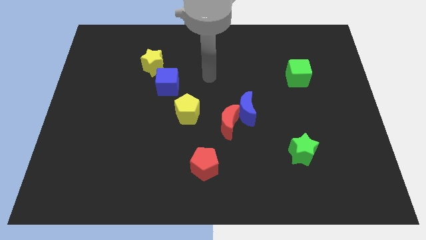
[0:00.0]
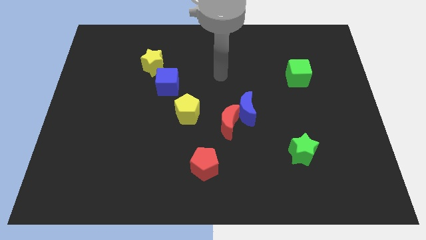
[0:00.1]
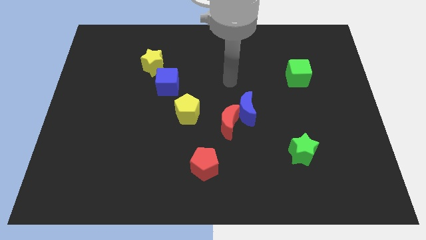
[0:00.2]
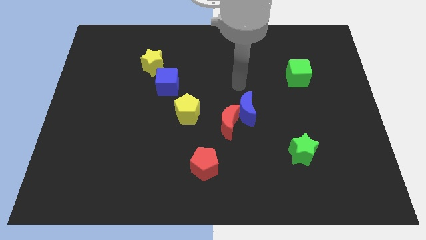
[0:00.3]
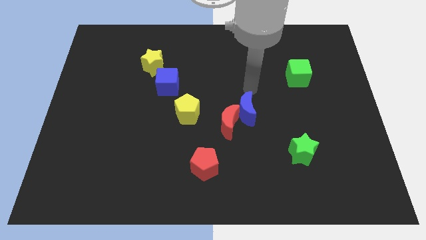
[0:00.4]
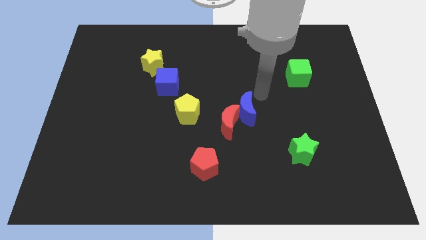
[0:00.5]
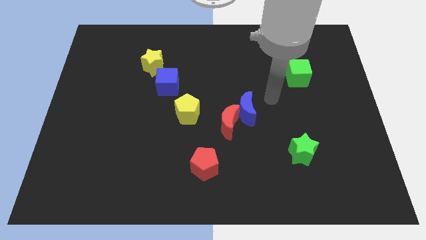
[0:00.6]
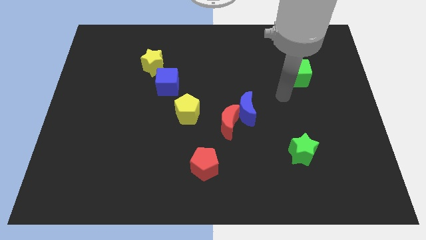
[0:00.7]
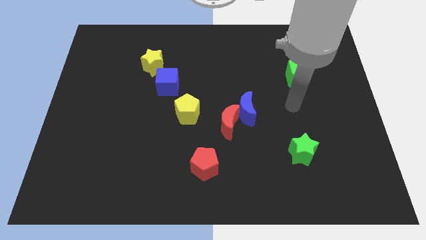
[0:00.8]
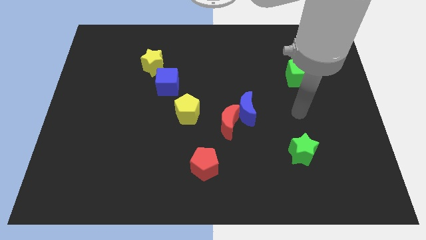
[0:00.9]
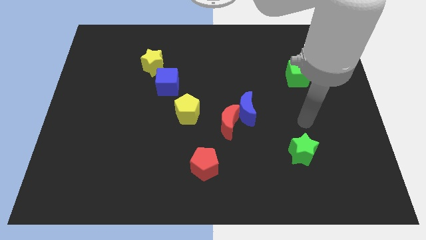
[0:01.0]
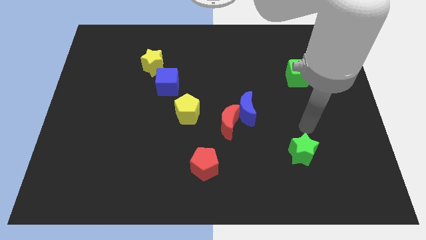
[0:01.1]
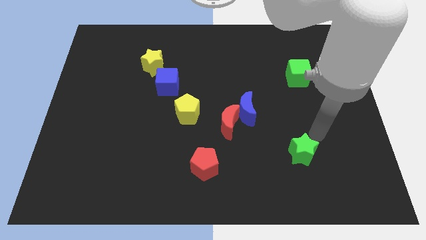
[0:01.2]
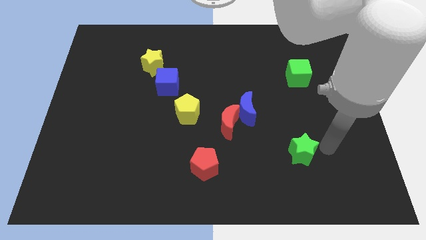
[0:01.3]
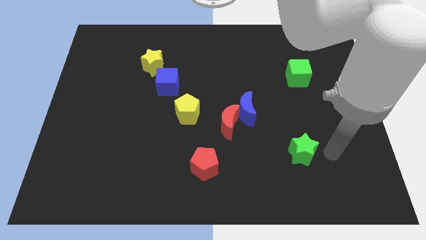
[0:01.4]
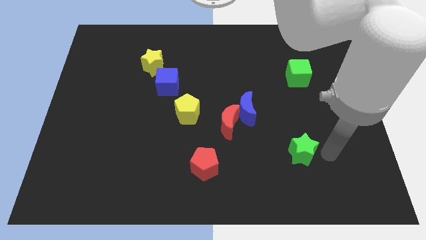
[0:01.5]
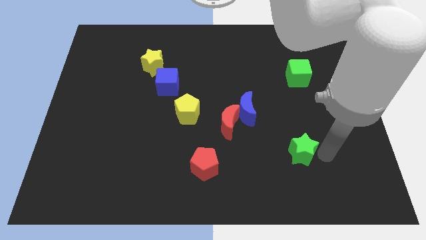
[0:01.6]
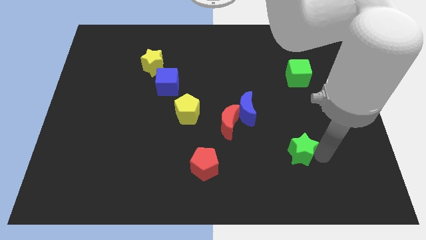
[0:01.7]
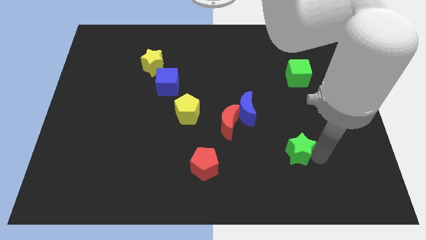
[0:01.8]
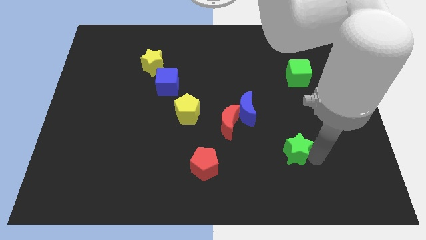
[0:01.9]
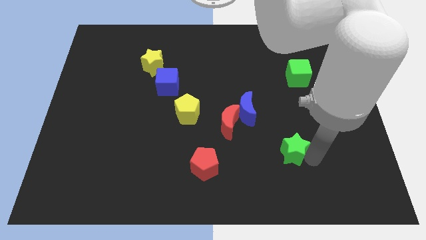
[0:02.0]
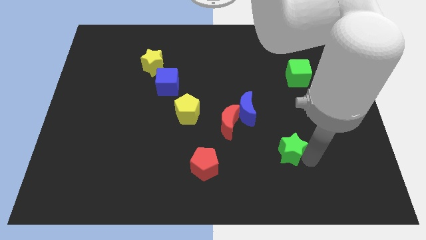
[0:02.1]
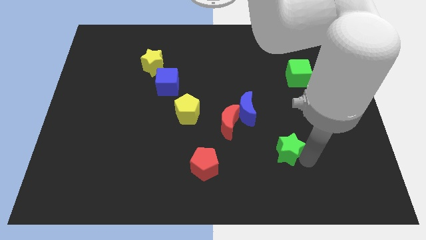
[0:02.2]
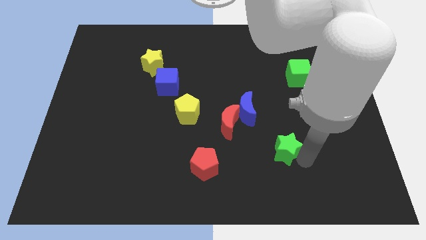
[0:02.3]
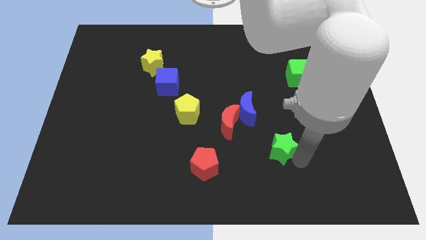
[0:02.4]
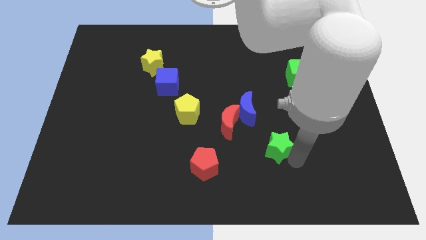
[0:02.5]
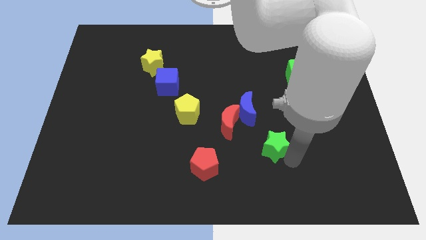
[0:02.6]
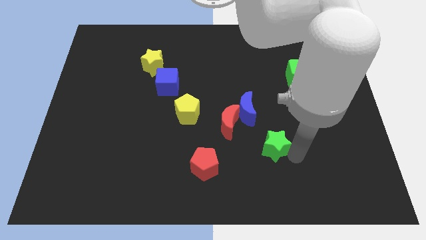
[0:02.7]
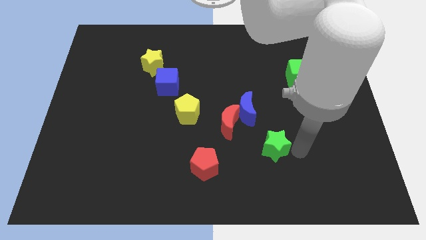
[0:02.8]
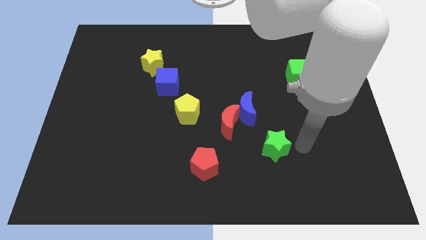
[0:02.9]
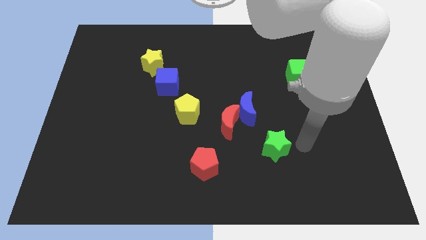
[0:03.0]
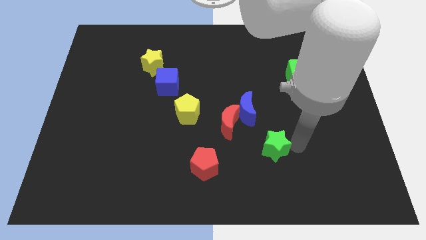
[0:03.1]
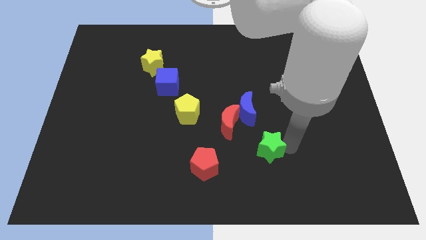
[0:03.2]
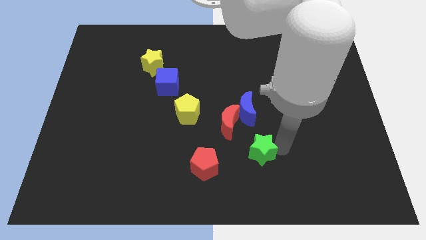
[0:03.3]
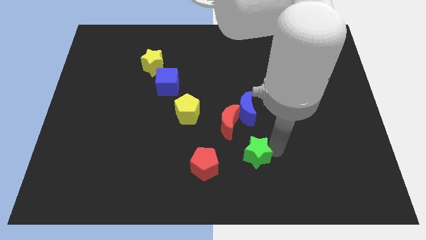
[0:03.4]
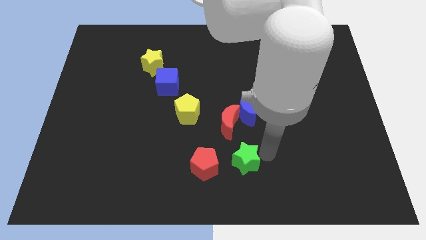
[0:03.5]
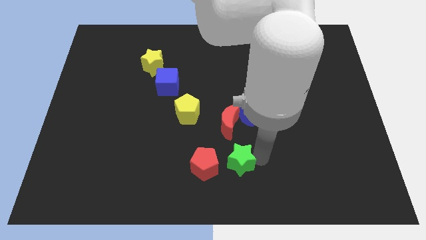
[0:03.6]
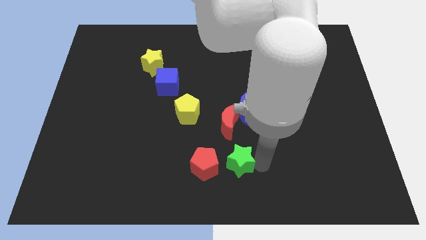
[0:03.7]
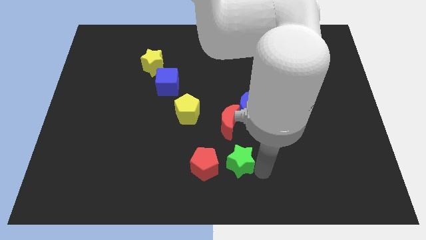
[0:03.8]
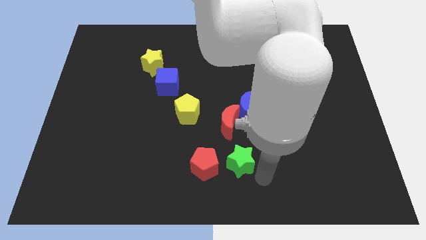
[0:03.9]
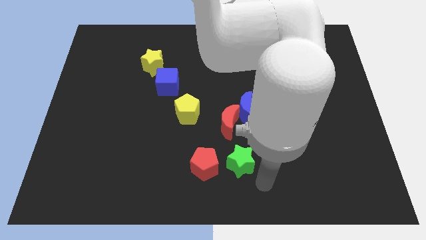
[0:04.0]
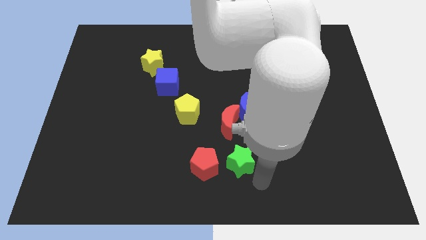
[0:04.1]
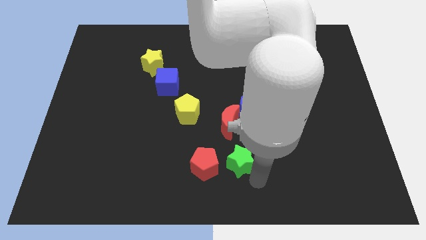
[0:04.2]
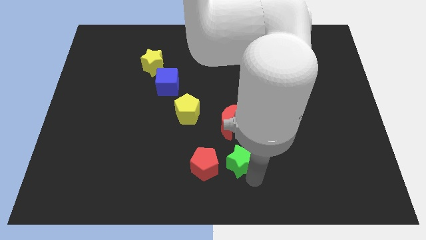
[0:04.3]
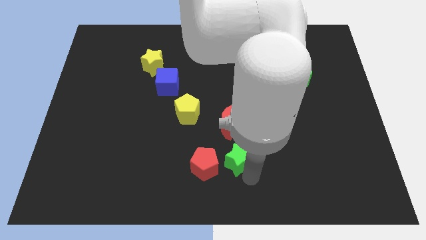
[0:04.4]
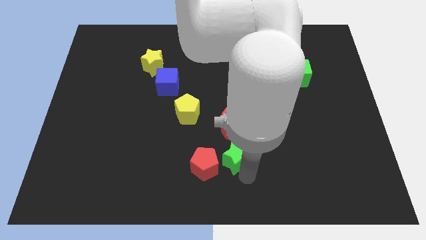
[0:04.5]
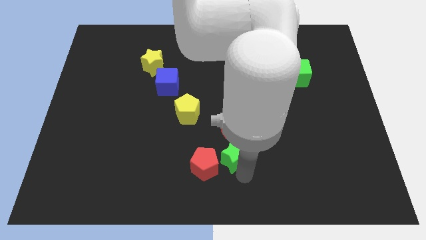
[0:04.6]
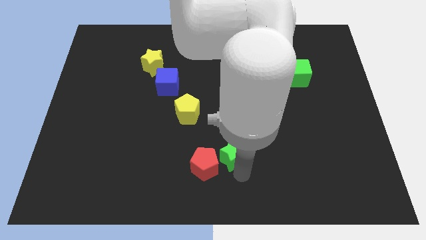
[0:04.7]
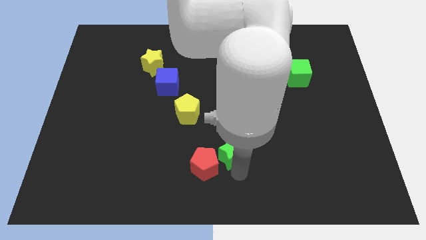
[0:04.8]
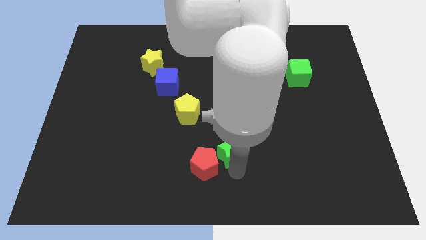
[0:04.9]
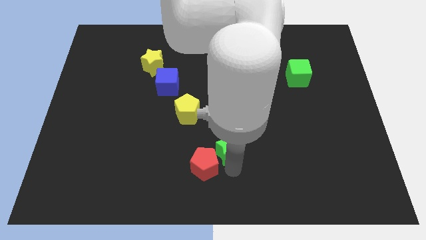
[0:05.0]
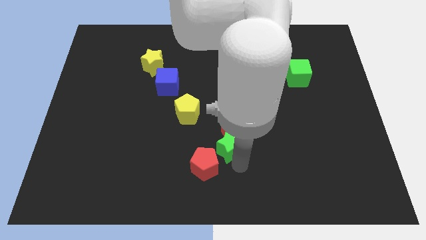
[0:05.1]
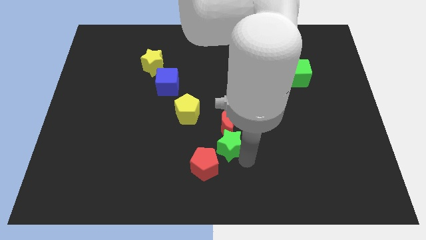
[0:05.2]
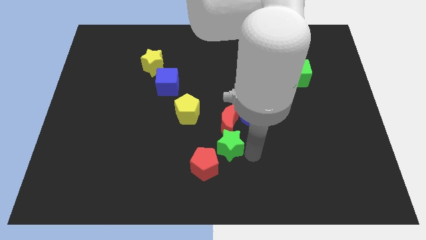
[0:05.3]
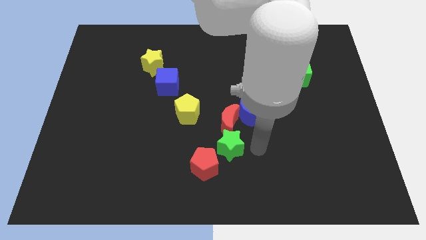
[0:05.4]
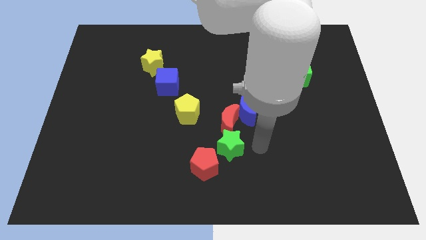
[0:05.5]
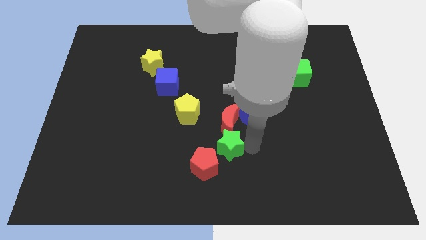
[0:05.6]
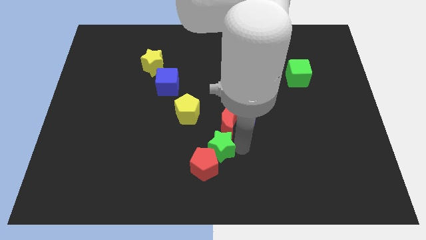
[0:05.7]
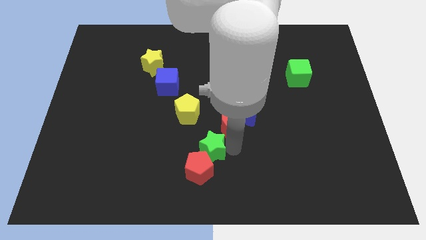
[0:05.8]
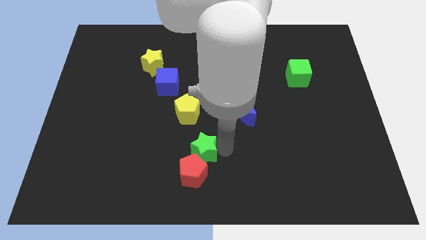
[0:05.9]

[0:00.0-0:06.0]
push the green star to the bottom side of the yellow pentagon

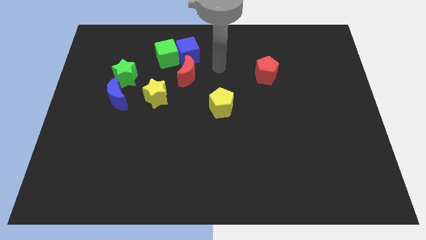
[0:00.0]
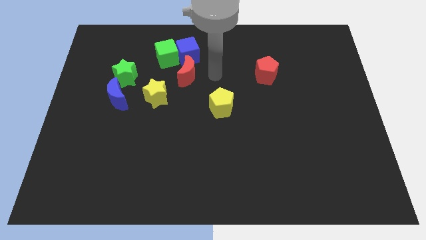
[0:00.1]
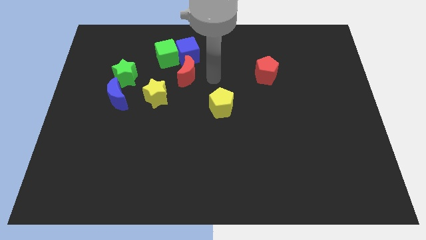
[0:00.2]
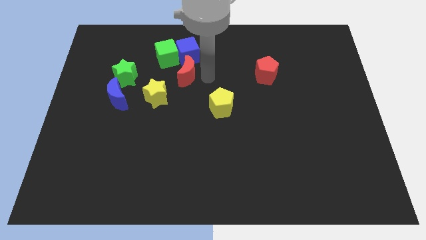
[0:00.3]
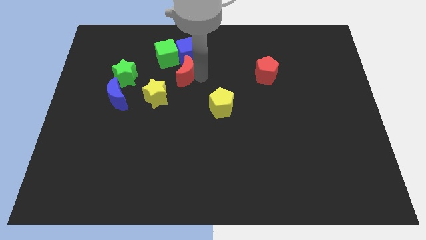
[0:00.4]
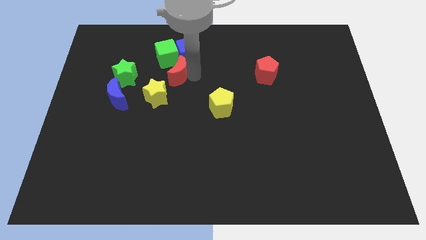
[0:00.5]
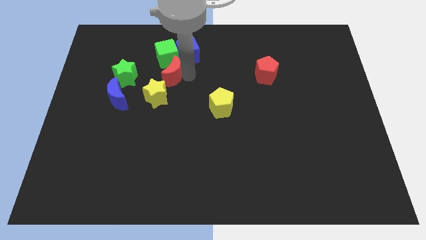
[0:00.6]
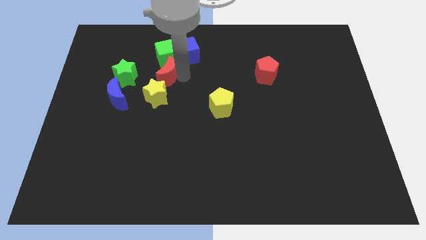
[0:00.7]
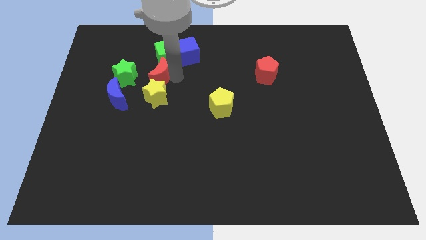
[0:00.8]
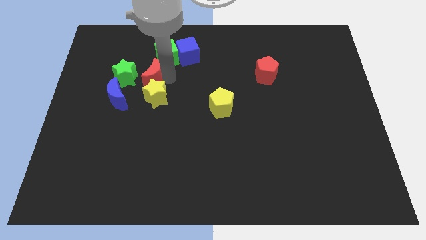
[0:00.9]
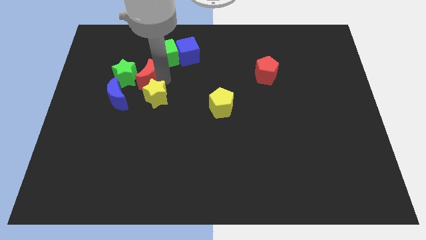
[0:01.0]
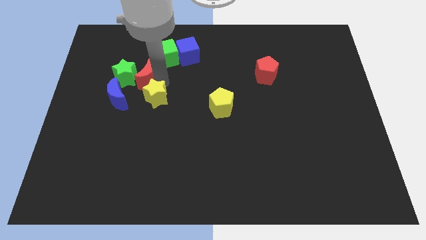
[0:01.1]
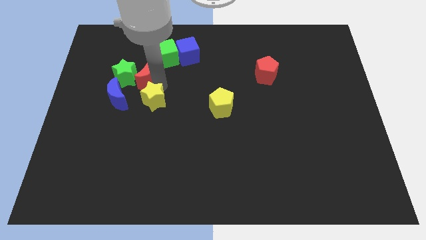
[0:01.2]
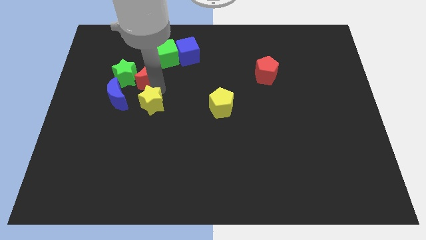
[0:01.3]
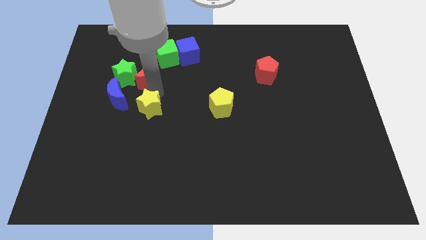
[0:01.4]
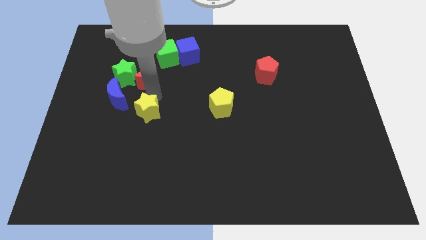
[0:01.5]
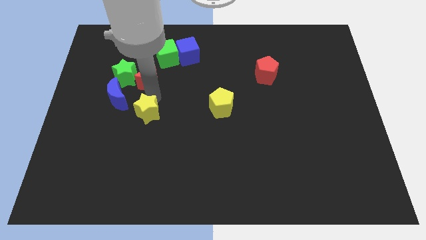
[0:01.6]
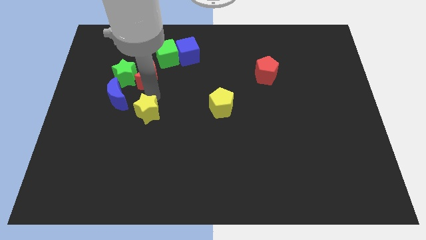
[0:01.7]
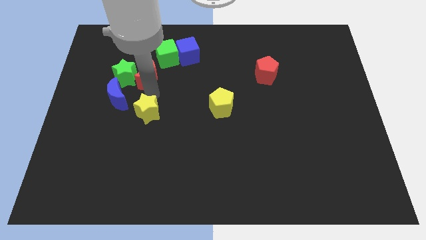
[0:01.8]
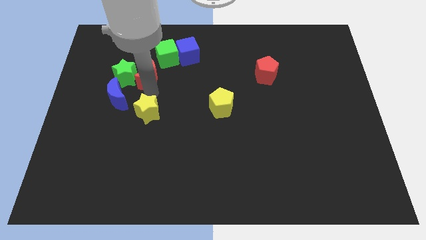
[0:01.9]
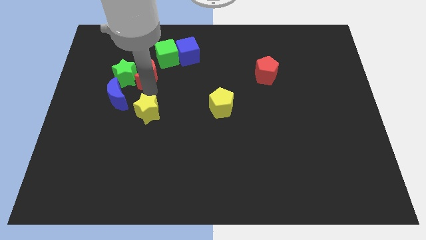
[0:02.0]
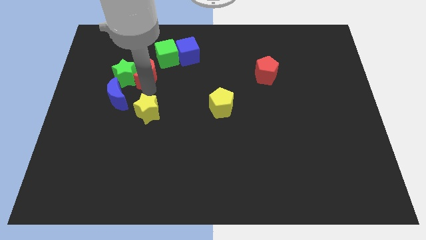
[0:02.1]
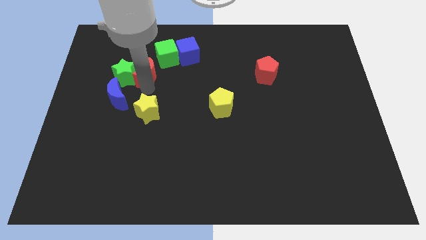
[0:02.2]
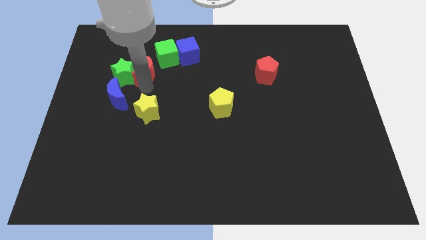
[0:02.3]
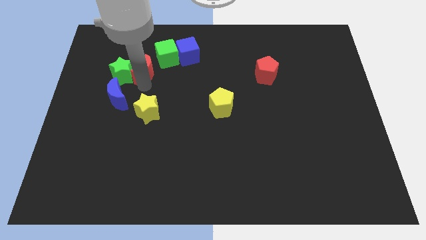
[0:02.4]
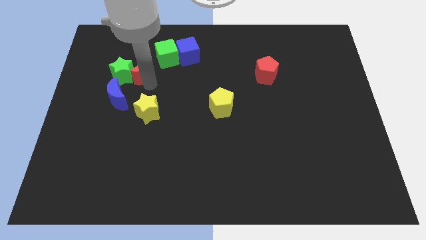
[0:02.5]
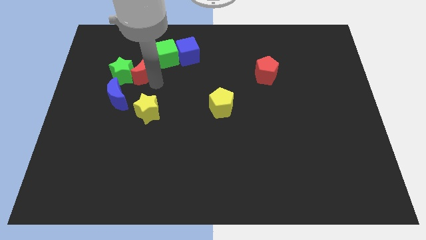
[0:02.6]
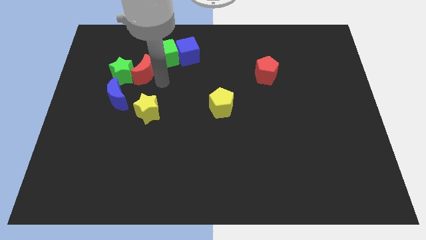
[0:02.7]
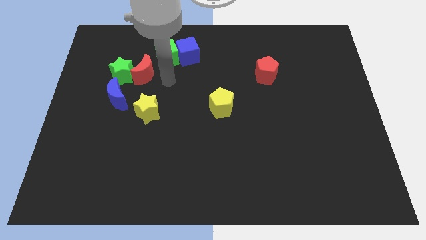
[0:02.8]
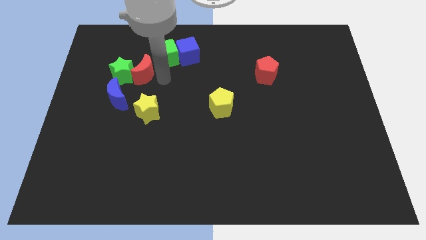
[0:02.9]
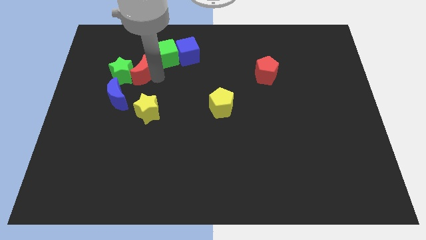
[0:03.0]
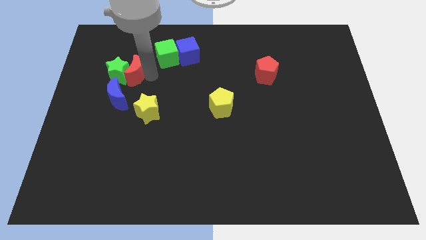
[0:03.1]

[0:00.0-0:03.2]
push the red moon to the top side of the blue moon
